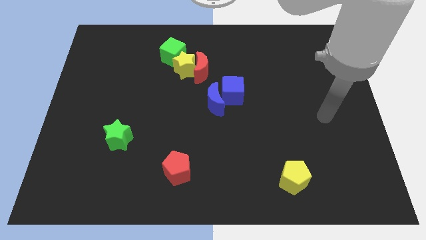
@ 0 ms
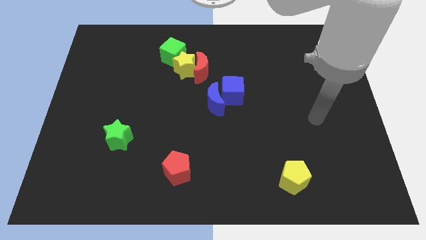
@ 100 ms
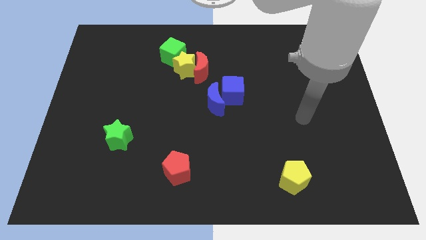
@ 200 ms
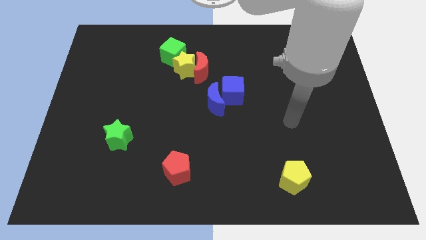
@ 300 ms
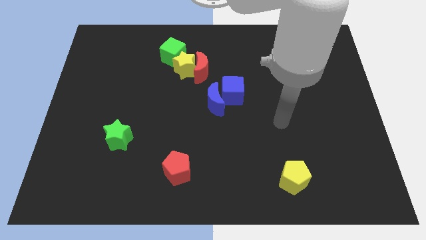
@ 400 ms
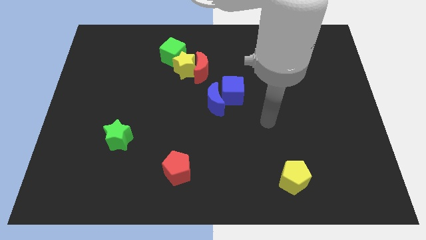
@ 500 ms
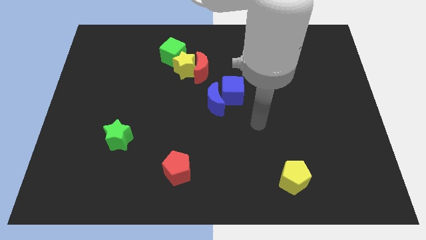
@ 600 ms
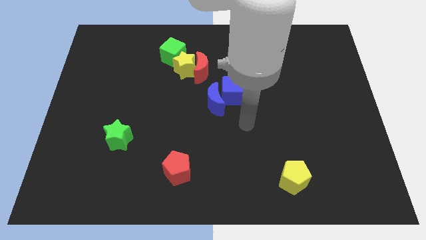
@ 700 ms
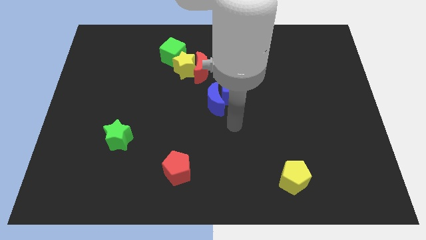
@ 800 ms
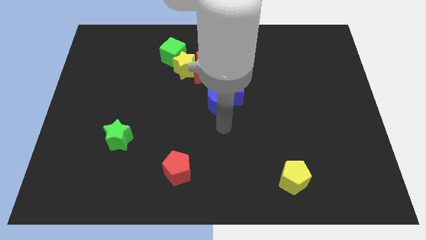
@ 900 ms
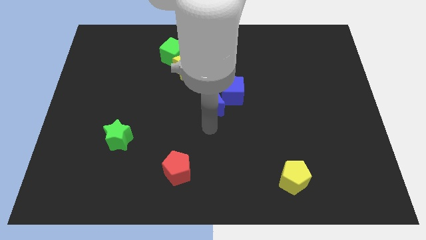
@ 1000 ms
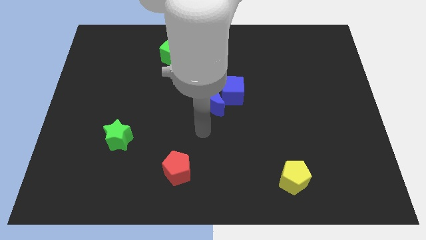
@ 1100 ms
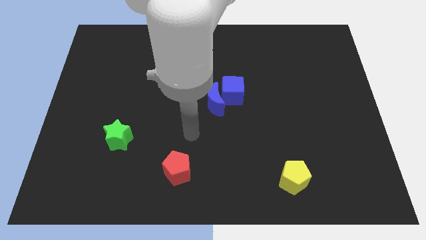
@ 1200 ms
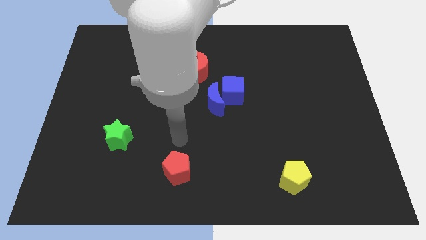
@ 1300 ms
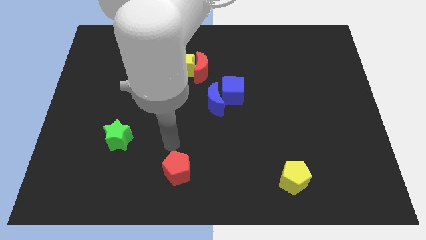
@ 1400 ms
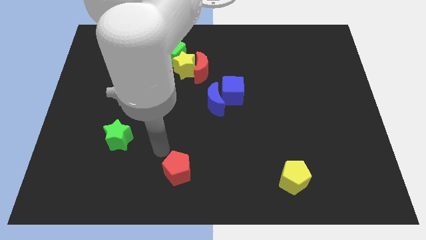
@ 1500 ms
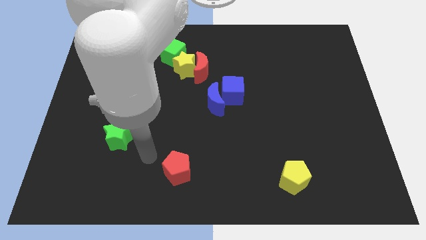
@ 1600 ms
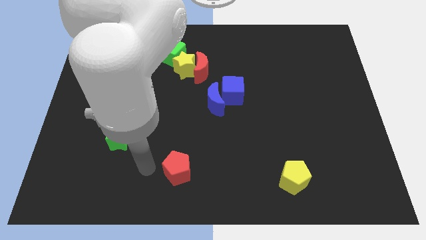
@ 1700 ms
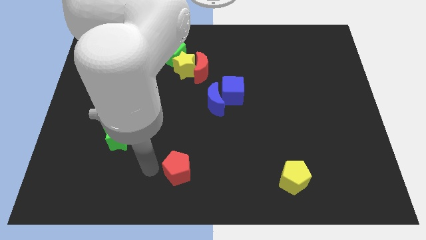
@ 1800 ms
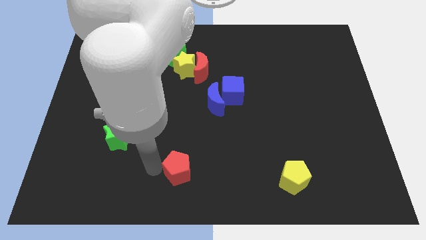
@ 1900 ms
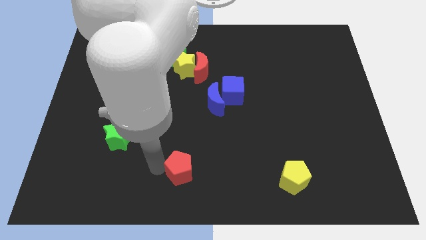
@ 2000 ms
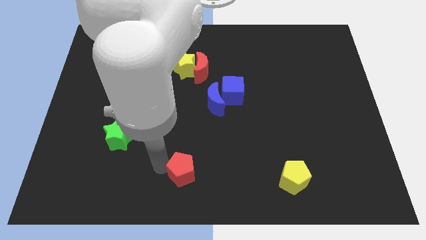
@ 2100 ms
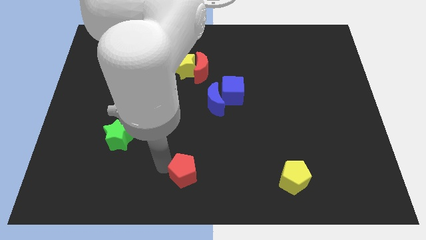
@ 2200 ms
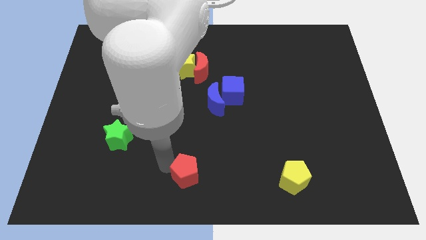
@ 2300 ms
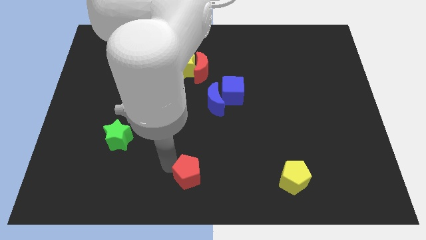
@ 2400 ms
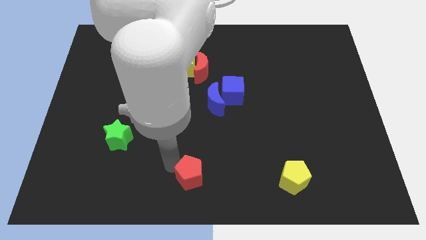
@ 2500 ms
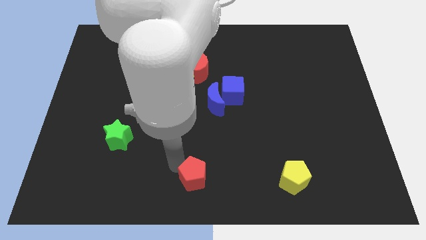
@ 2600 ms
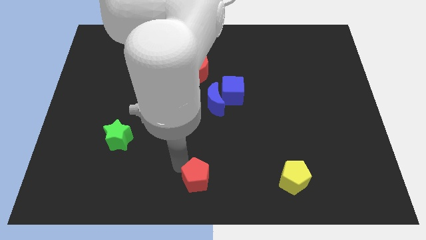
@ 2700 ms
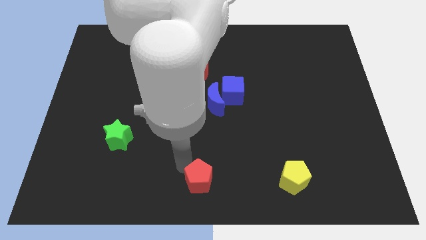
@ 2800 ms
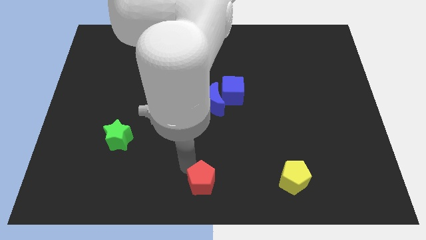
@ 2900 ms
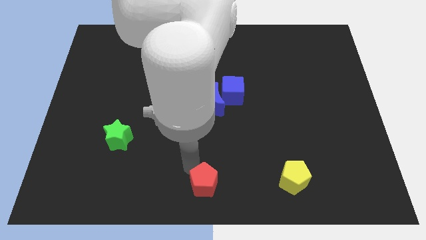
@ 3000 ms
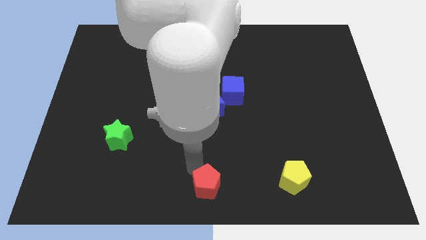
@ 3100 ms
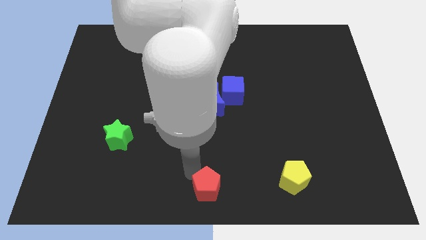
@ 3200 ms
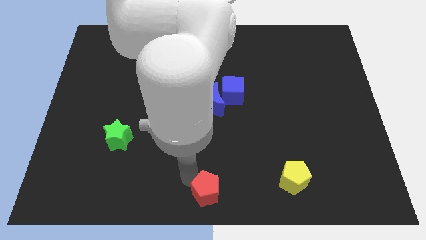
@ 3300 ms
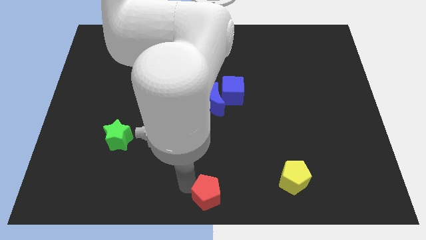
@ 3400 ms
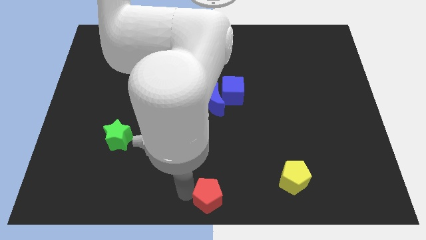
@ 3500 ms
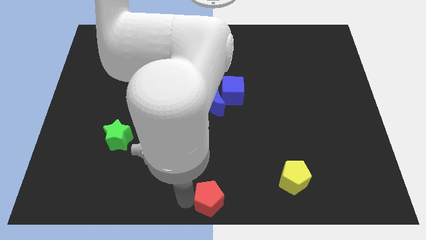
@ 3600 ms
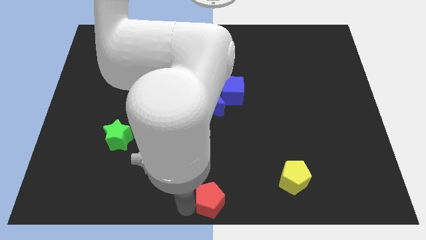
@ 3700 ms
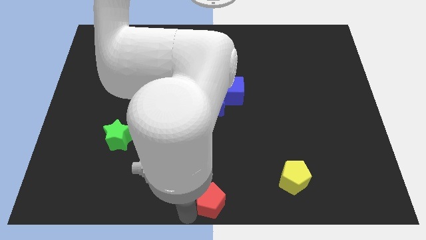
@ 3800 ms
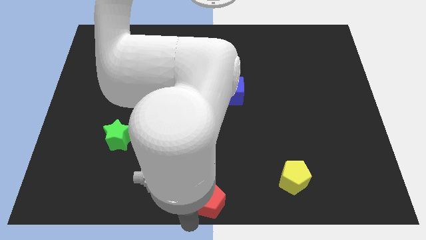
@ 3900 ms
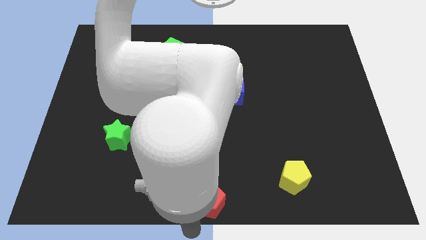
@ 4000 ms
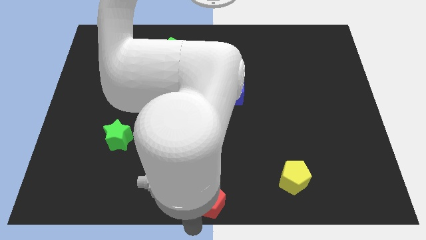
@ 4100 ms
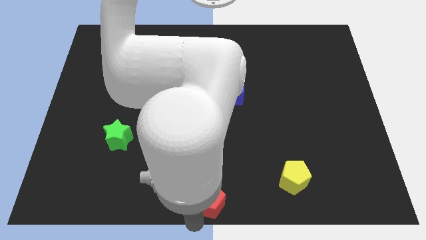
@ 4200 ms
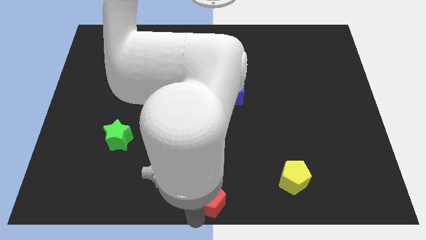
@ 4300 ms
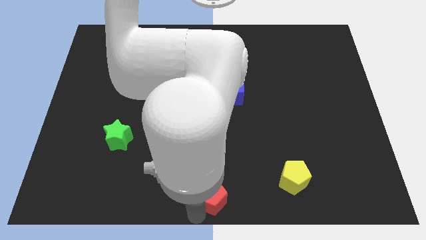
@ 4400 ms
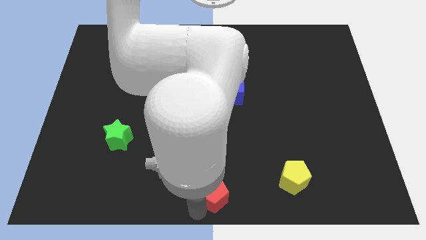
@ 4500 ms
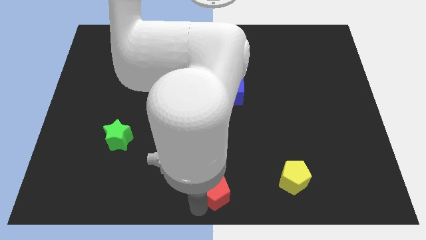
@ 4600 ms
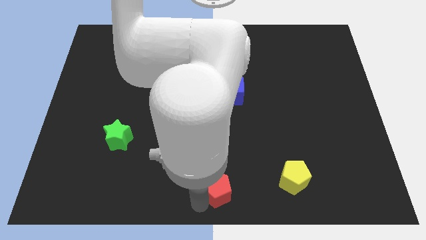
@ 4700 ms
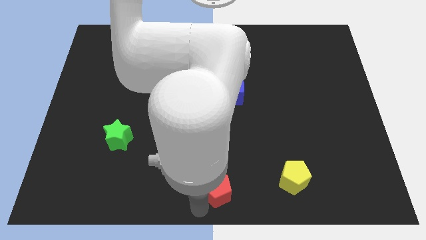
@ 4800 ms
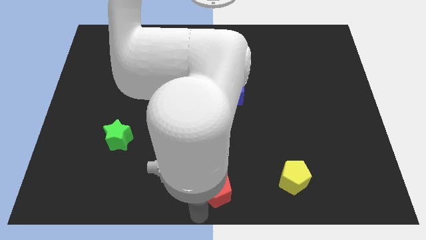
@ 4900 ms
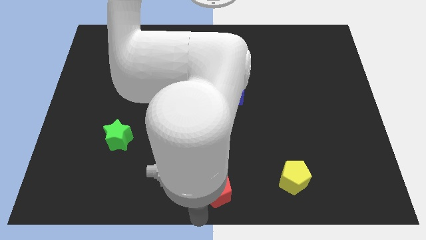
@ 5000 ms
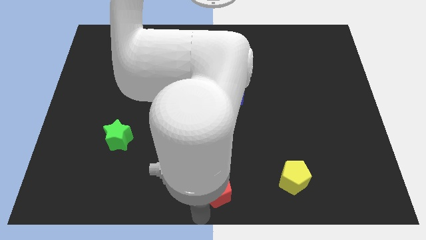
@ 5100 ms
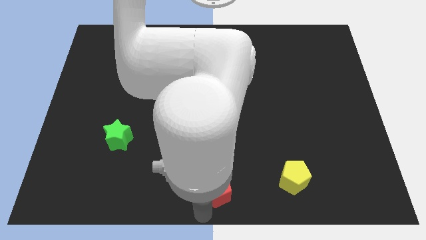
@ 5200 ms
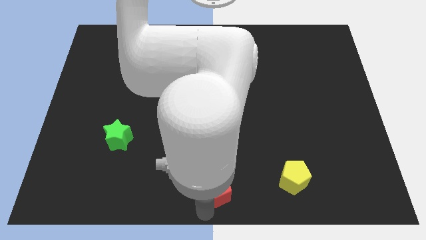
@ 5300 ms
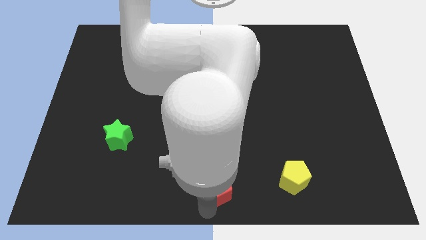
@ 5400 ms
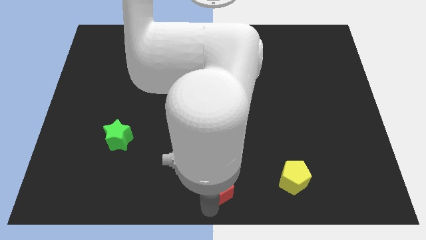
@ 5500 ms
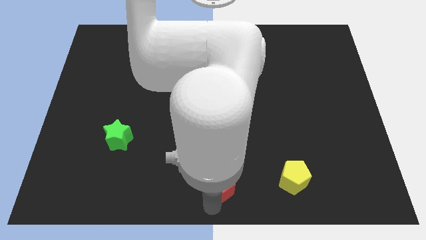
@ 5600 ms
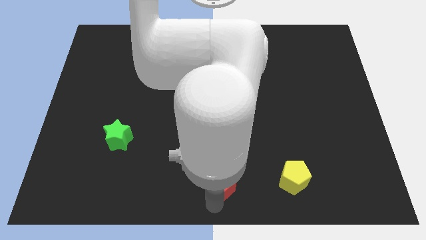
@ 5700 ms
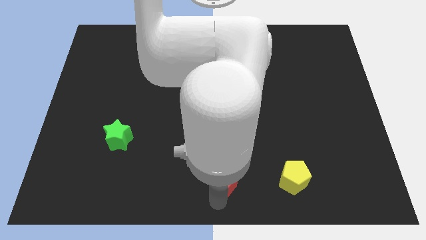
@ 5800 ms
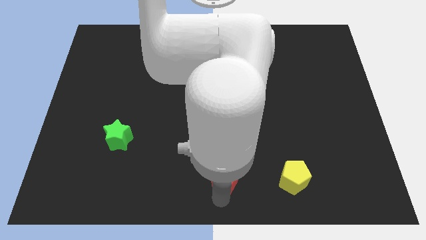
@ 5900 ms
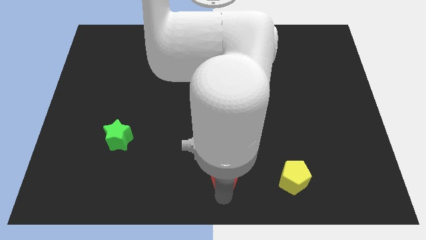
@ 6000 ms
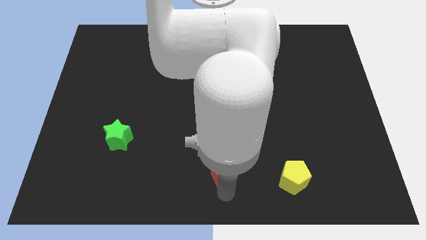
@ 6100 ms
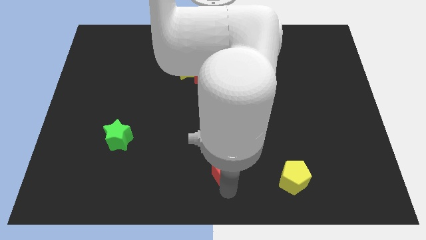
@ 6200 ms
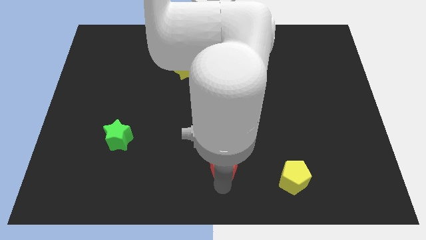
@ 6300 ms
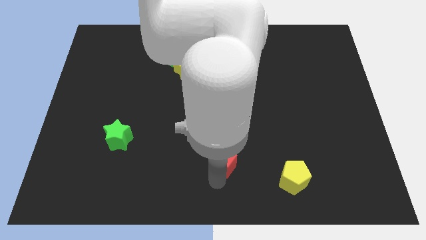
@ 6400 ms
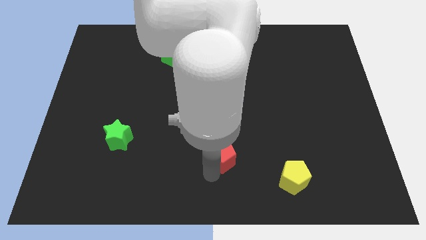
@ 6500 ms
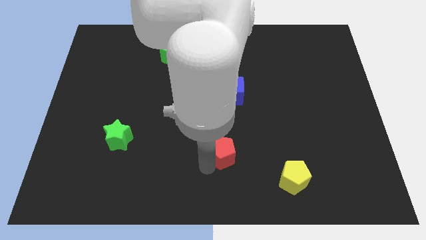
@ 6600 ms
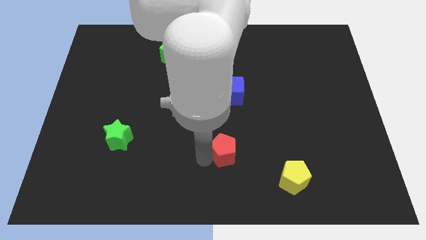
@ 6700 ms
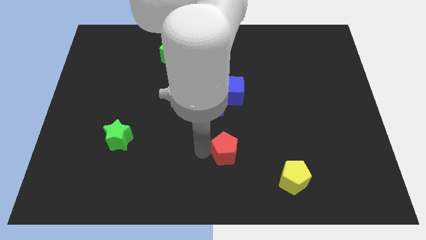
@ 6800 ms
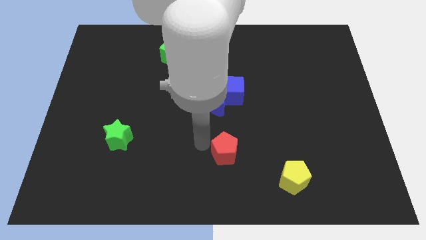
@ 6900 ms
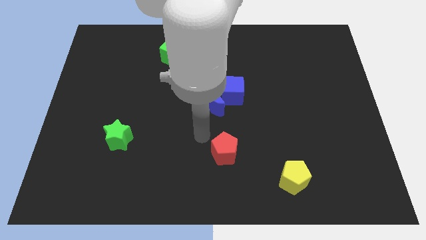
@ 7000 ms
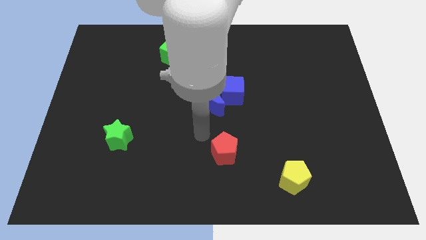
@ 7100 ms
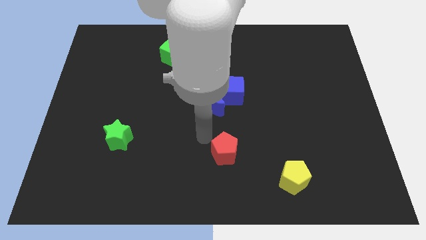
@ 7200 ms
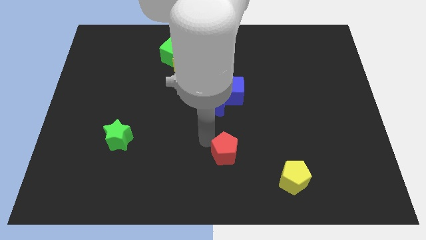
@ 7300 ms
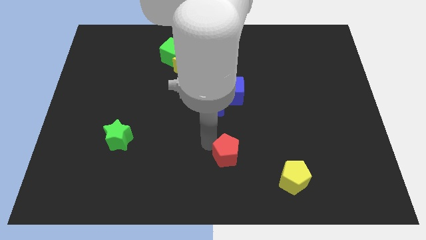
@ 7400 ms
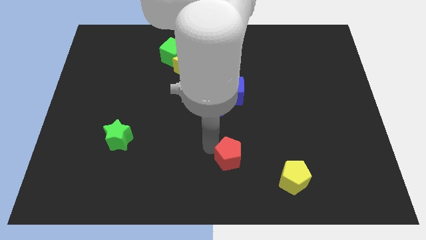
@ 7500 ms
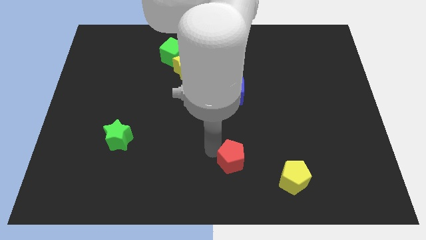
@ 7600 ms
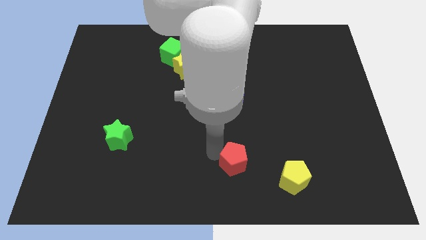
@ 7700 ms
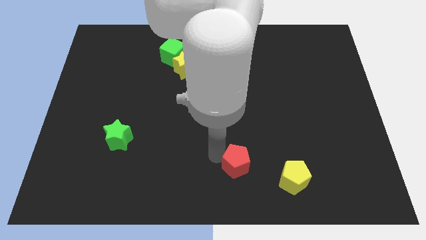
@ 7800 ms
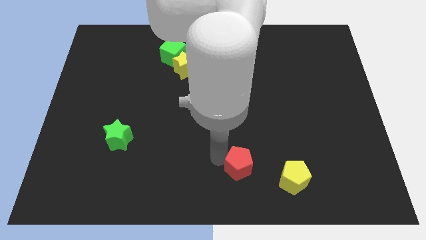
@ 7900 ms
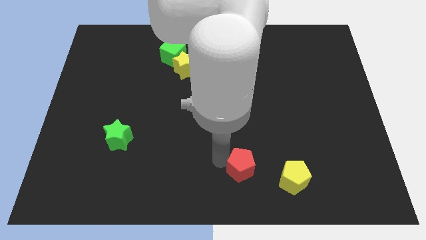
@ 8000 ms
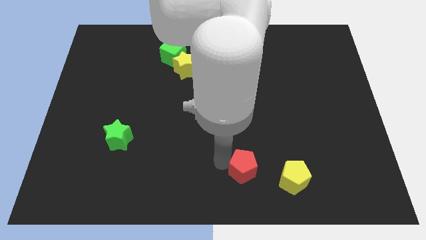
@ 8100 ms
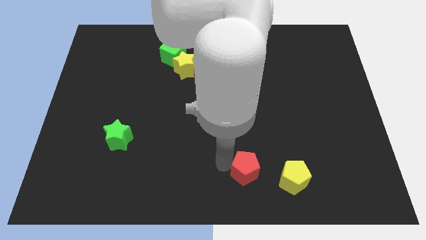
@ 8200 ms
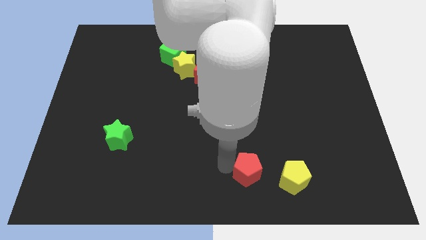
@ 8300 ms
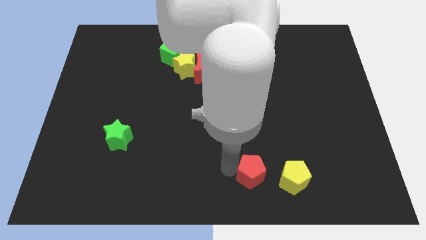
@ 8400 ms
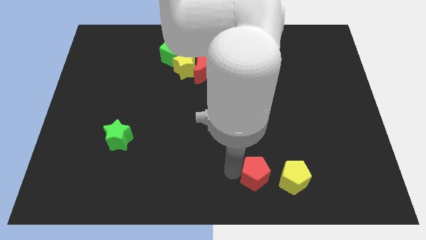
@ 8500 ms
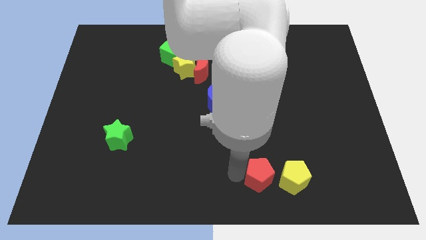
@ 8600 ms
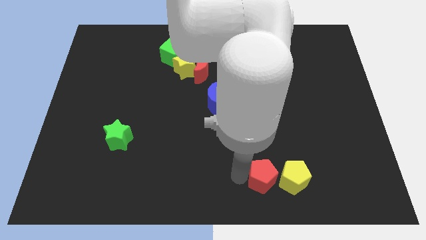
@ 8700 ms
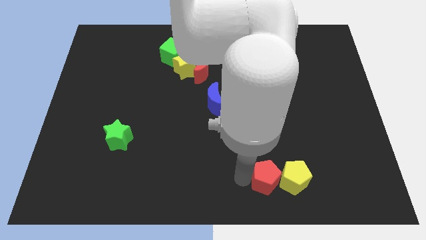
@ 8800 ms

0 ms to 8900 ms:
move the red pentagon towards the yellow pentagon
